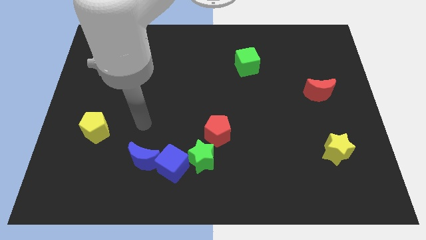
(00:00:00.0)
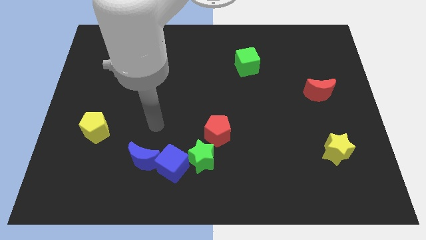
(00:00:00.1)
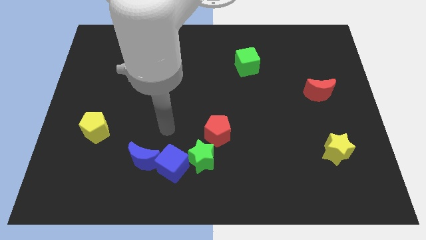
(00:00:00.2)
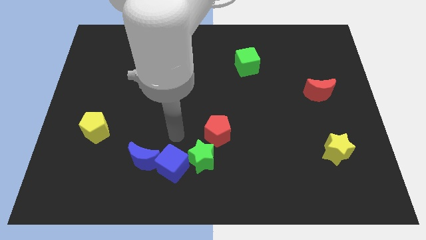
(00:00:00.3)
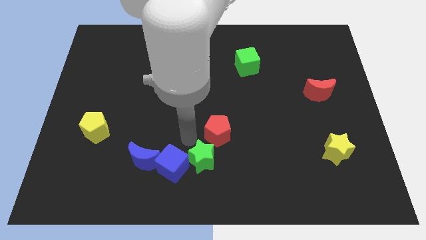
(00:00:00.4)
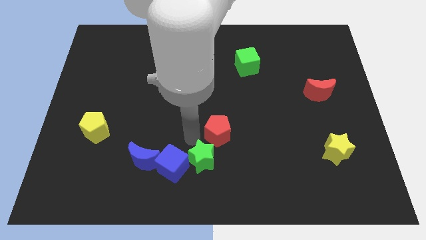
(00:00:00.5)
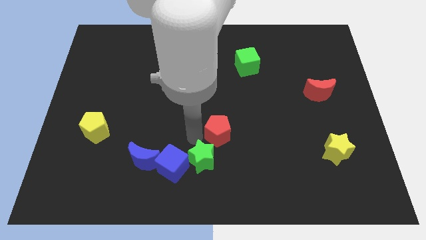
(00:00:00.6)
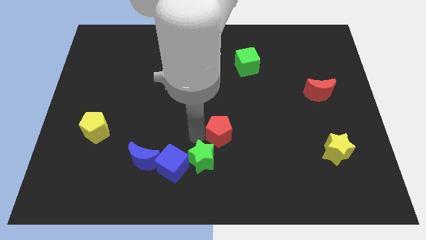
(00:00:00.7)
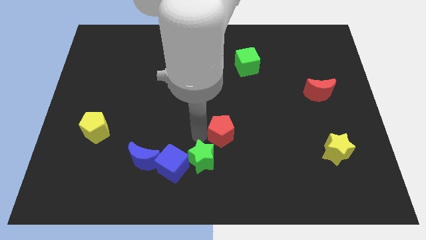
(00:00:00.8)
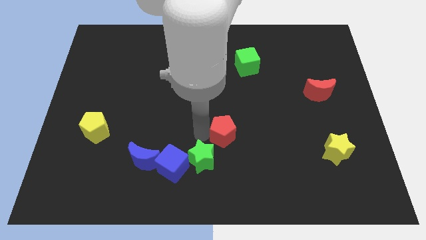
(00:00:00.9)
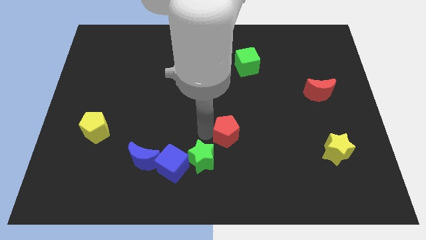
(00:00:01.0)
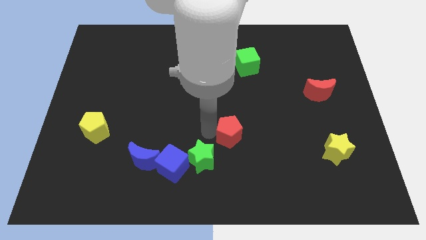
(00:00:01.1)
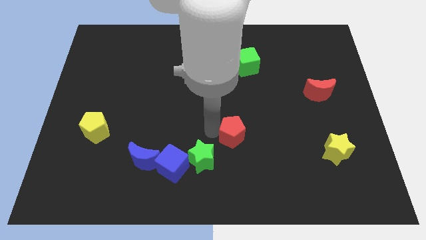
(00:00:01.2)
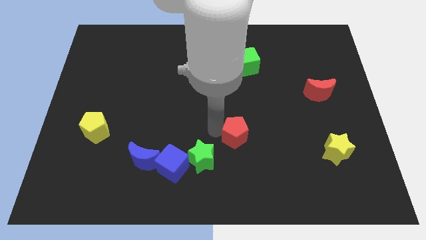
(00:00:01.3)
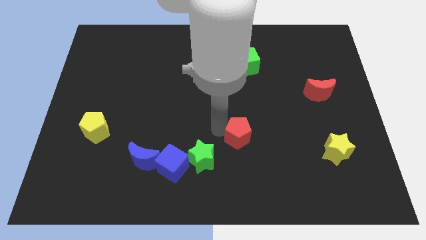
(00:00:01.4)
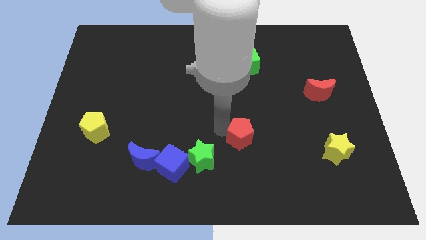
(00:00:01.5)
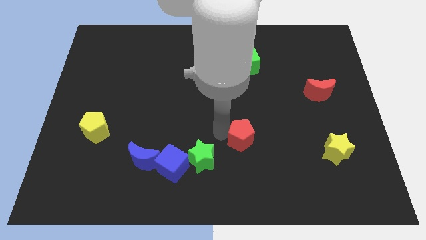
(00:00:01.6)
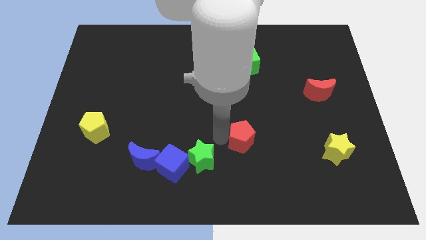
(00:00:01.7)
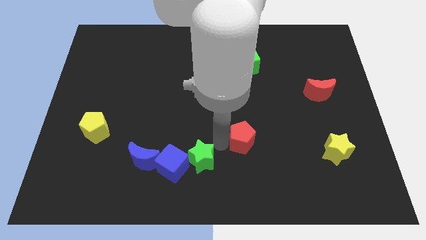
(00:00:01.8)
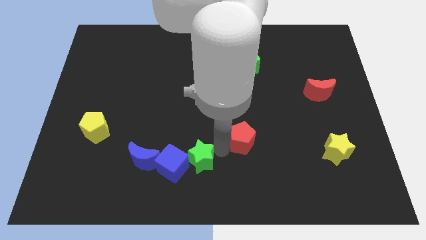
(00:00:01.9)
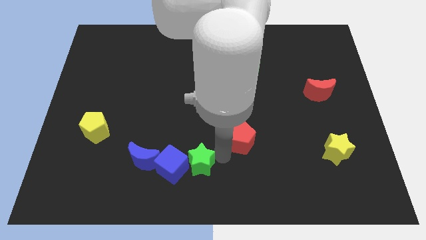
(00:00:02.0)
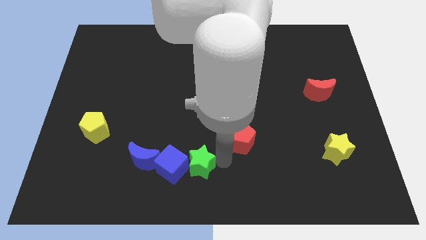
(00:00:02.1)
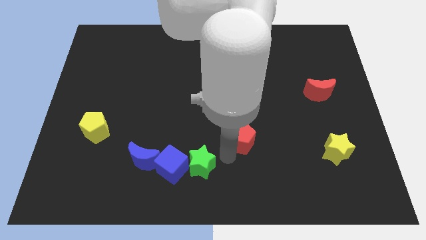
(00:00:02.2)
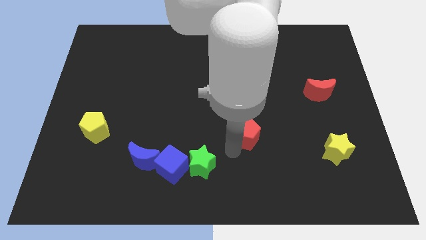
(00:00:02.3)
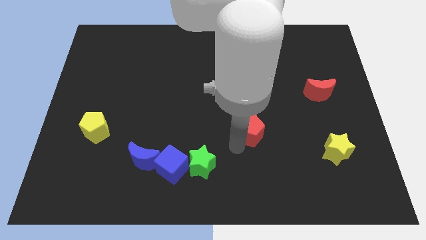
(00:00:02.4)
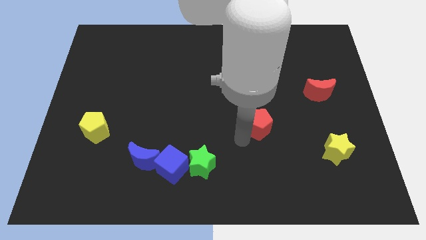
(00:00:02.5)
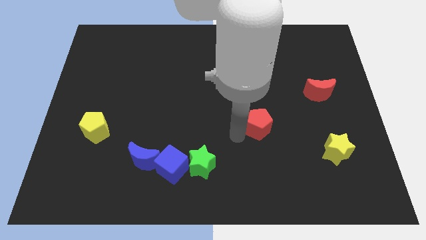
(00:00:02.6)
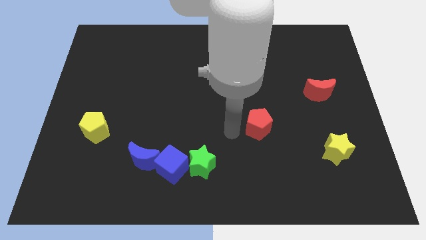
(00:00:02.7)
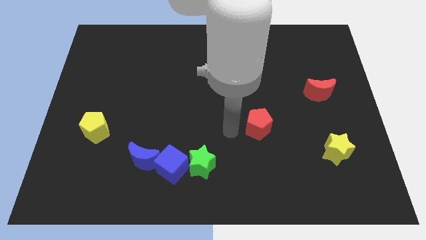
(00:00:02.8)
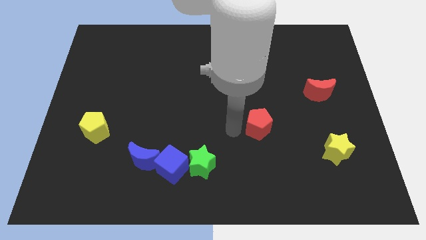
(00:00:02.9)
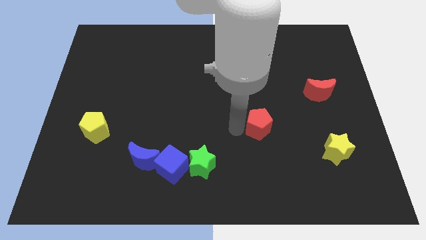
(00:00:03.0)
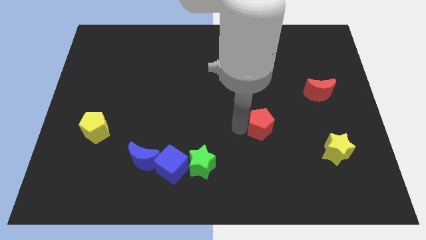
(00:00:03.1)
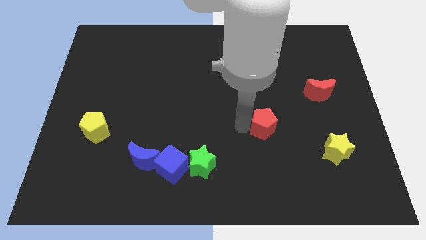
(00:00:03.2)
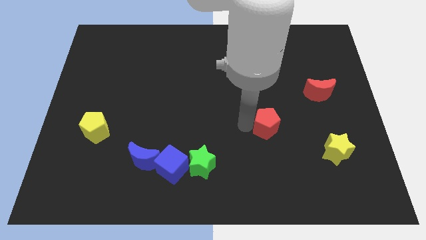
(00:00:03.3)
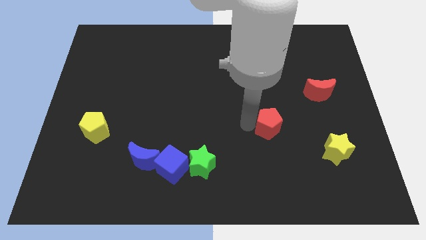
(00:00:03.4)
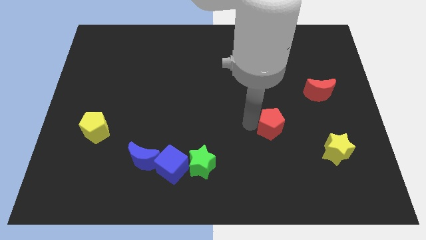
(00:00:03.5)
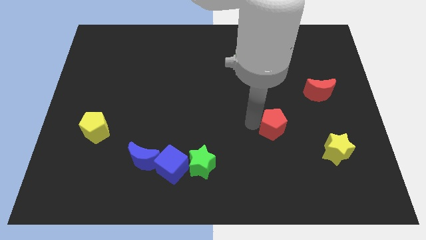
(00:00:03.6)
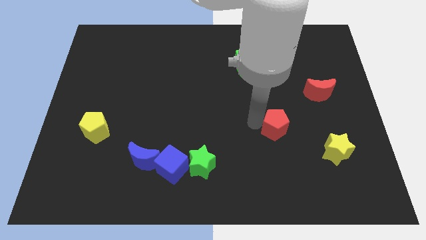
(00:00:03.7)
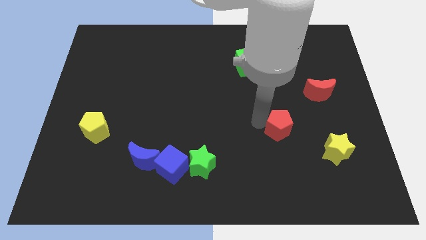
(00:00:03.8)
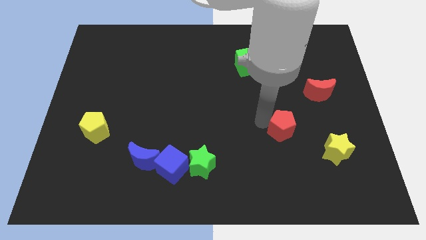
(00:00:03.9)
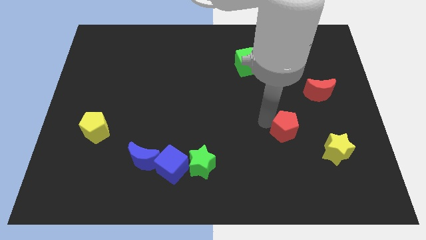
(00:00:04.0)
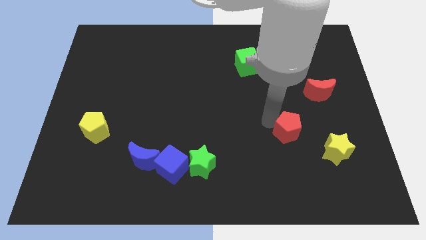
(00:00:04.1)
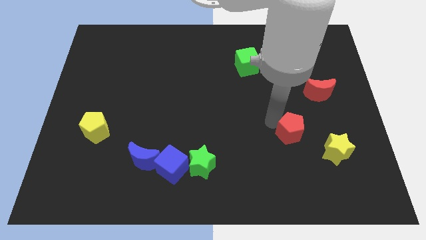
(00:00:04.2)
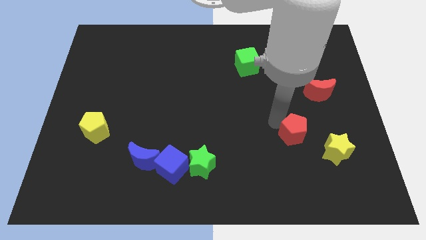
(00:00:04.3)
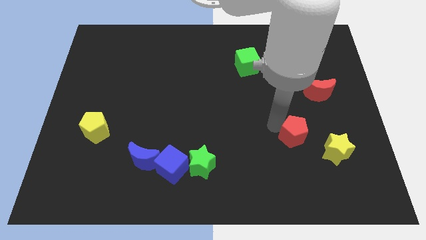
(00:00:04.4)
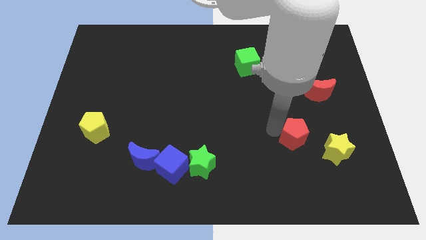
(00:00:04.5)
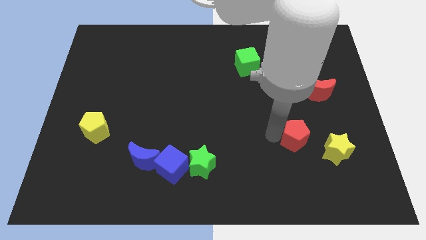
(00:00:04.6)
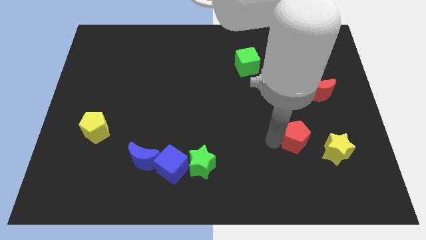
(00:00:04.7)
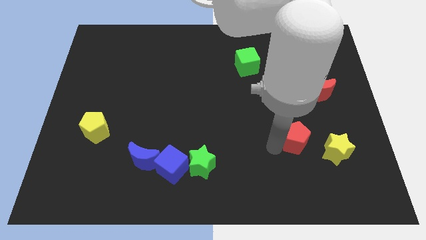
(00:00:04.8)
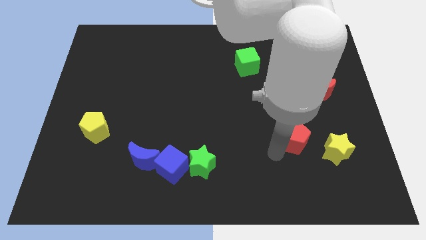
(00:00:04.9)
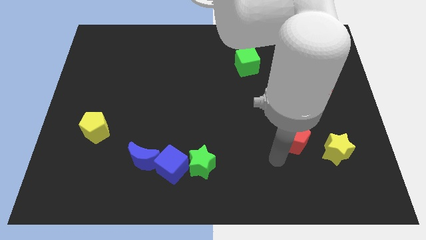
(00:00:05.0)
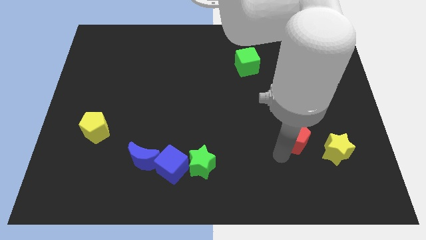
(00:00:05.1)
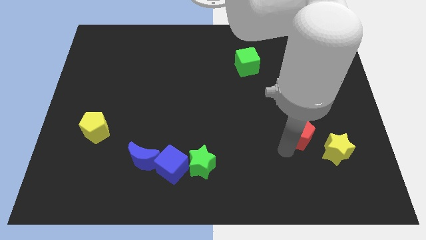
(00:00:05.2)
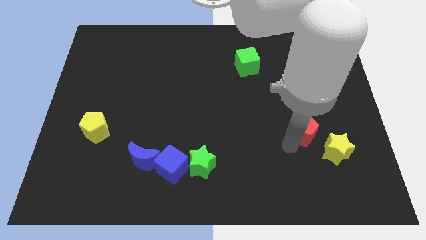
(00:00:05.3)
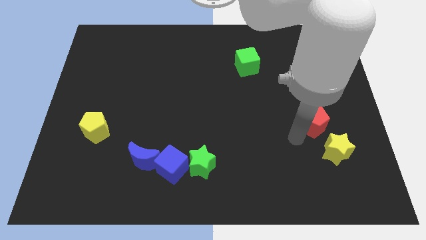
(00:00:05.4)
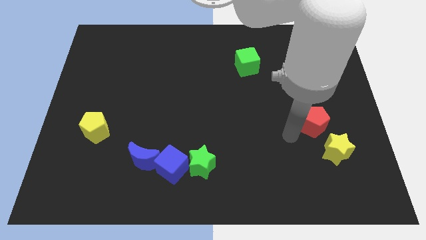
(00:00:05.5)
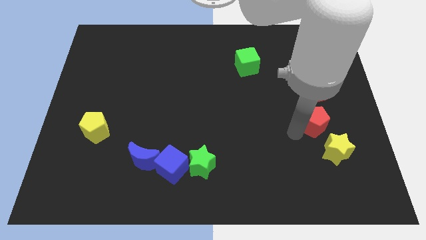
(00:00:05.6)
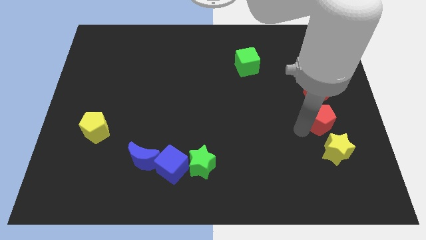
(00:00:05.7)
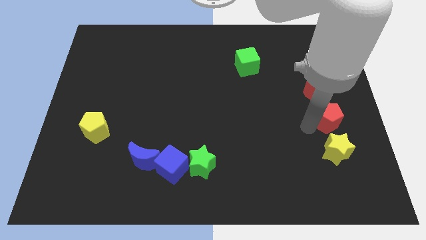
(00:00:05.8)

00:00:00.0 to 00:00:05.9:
push the red pentagon to the center right

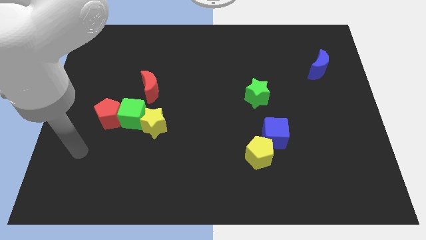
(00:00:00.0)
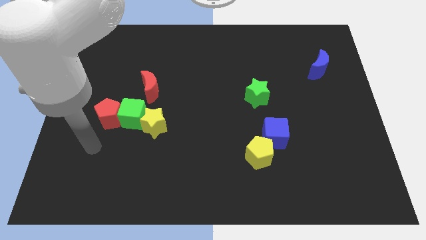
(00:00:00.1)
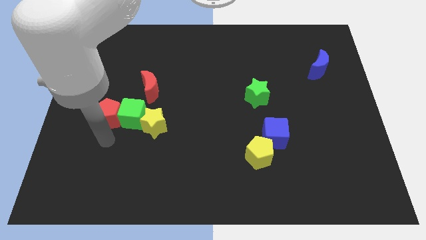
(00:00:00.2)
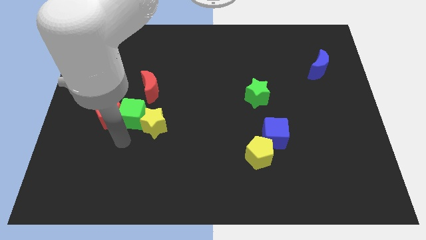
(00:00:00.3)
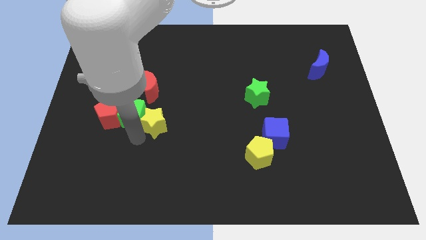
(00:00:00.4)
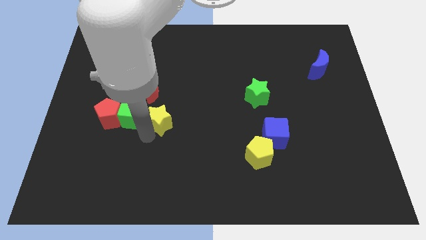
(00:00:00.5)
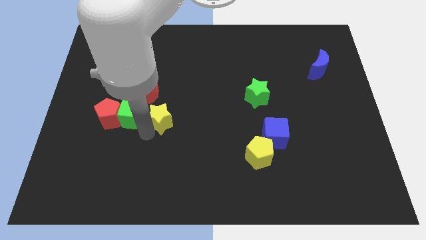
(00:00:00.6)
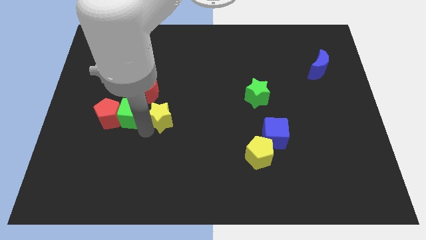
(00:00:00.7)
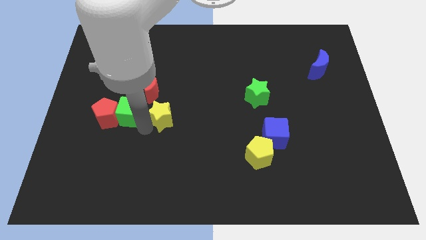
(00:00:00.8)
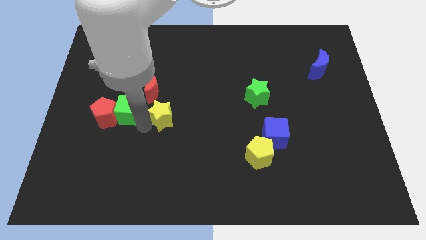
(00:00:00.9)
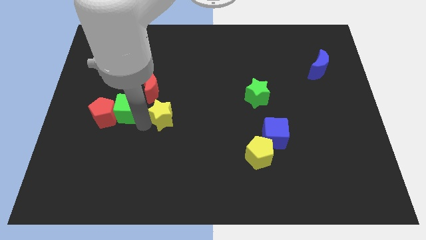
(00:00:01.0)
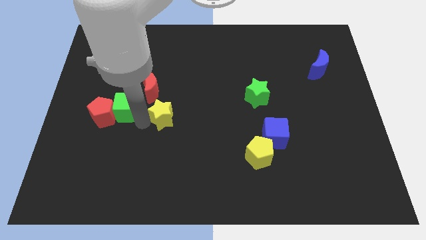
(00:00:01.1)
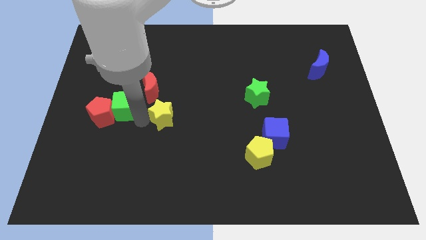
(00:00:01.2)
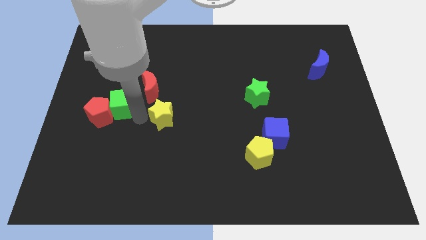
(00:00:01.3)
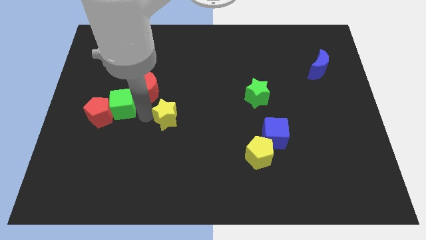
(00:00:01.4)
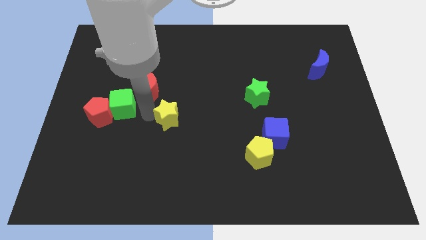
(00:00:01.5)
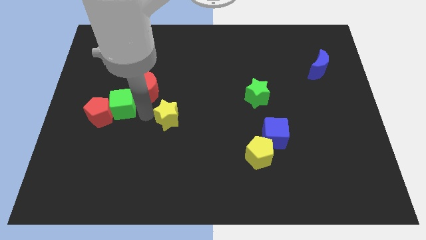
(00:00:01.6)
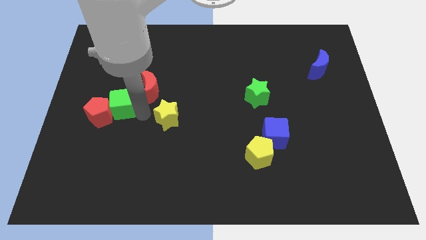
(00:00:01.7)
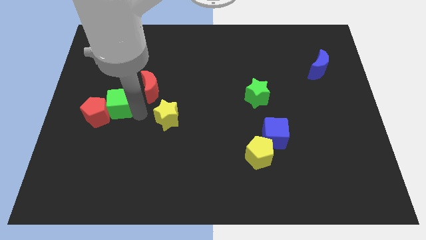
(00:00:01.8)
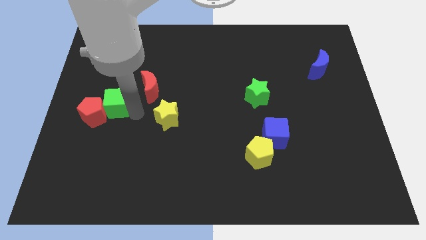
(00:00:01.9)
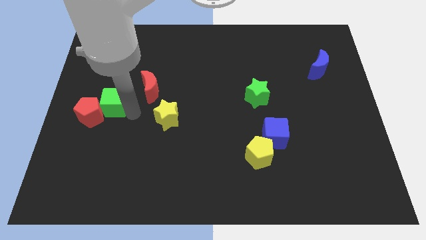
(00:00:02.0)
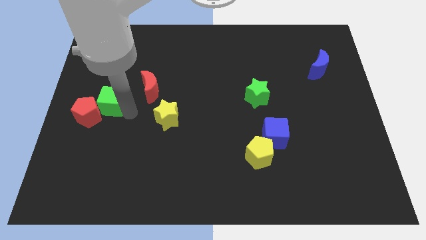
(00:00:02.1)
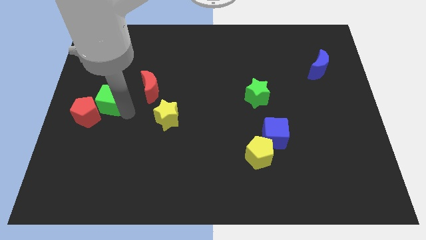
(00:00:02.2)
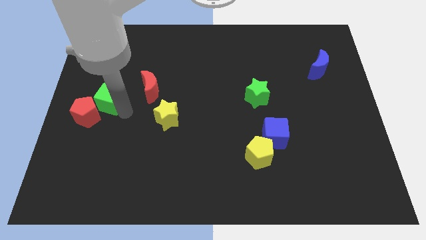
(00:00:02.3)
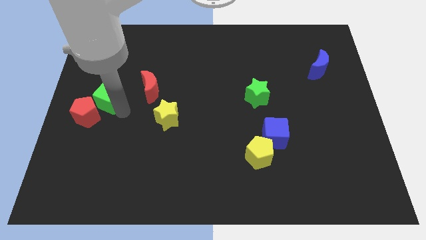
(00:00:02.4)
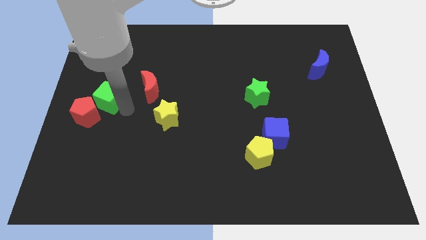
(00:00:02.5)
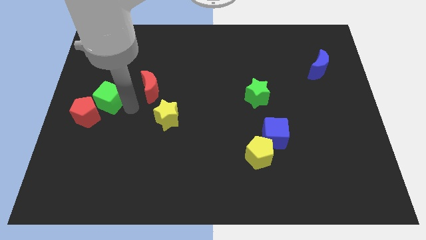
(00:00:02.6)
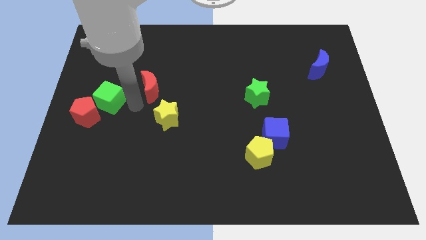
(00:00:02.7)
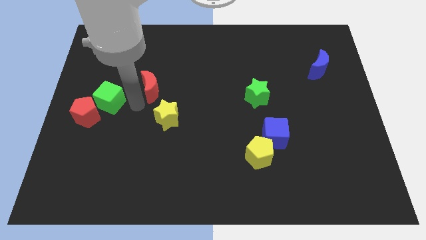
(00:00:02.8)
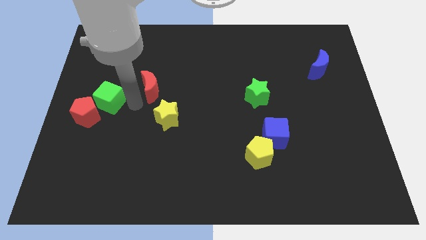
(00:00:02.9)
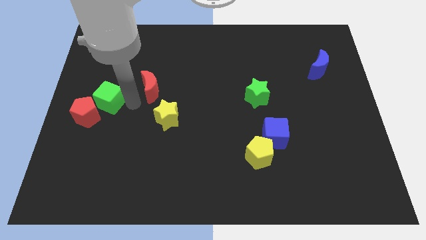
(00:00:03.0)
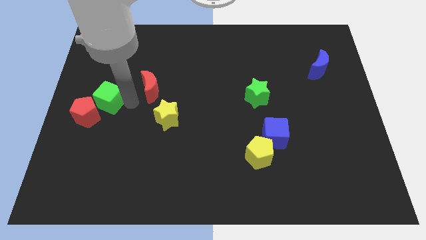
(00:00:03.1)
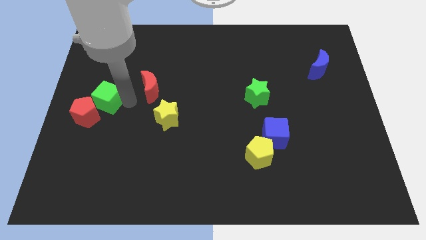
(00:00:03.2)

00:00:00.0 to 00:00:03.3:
push the green cube to the left side
